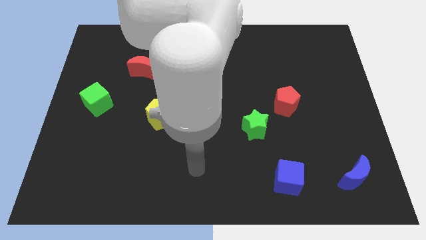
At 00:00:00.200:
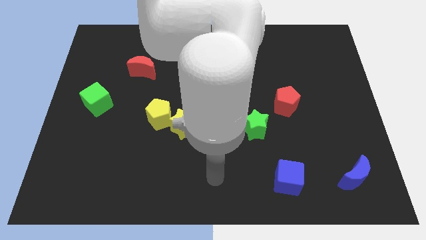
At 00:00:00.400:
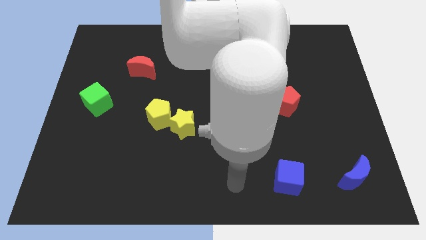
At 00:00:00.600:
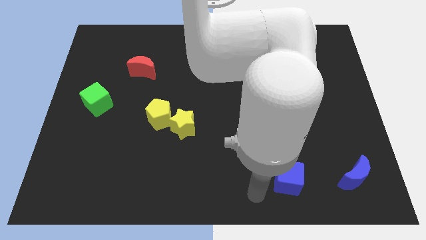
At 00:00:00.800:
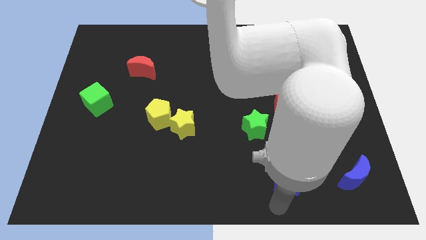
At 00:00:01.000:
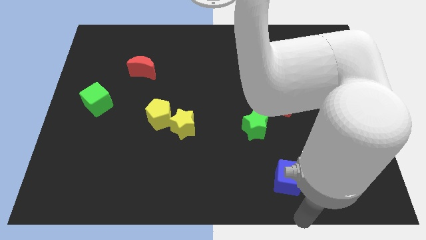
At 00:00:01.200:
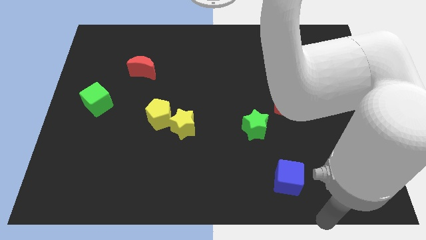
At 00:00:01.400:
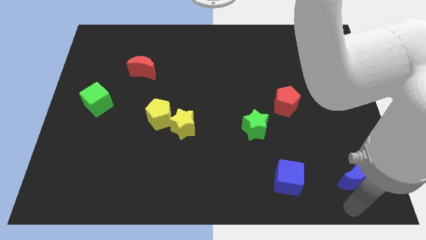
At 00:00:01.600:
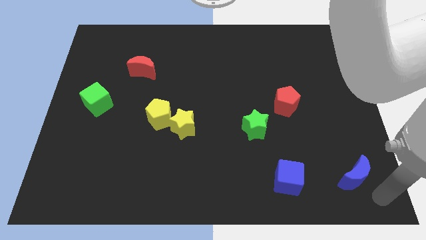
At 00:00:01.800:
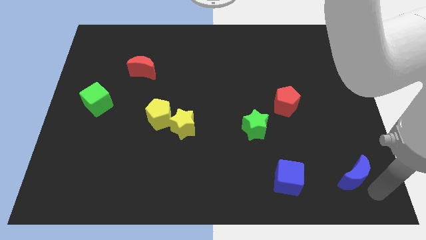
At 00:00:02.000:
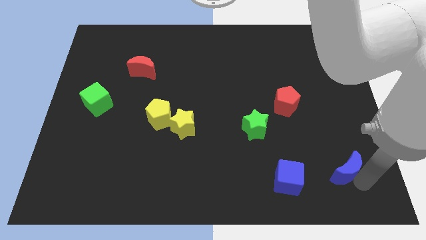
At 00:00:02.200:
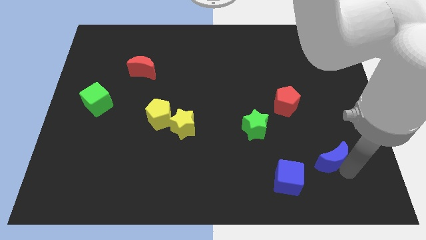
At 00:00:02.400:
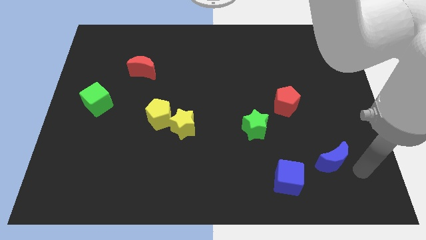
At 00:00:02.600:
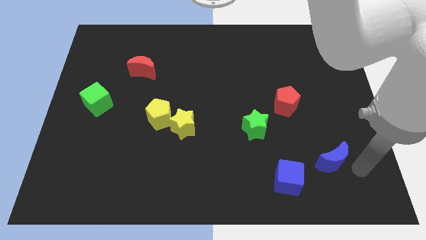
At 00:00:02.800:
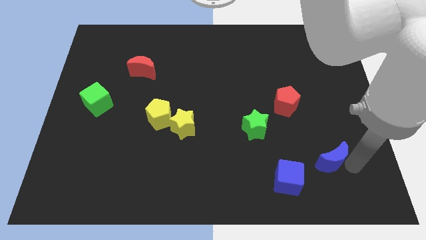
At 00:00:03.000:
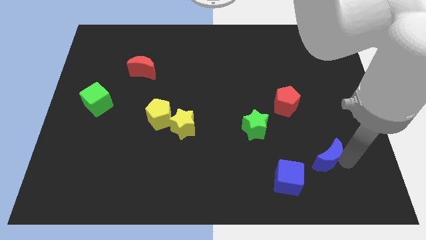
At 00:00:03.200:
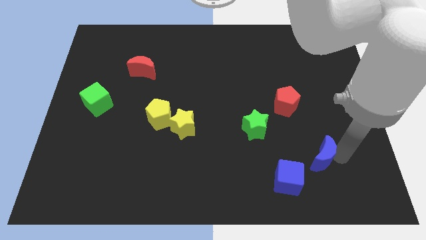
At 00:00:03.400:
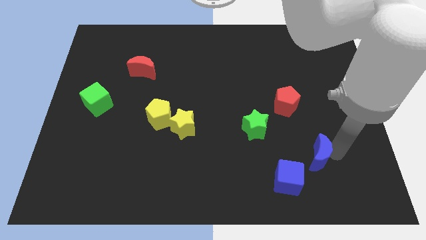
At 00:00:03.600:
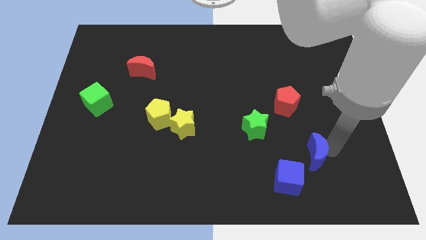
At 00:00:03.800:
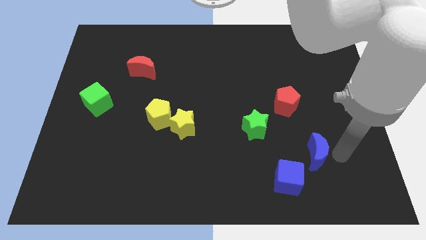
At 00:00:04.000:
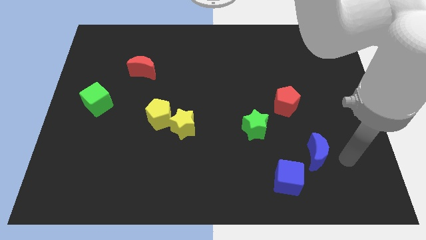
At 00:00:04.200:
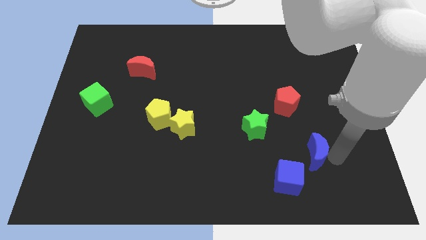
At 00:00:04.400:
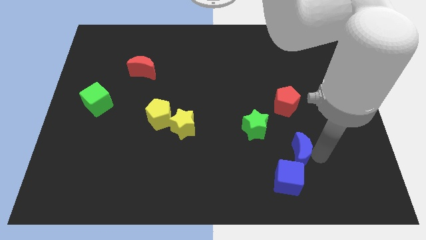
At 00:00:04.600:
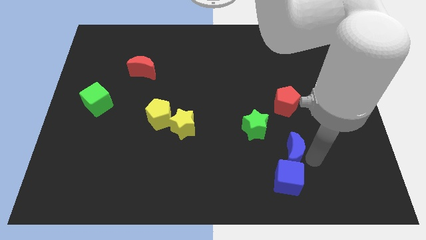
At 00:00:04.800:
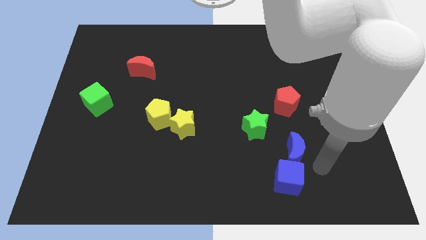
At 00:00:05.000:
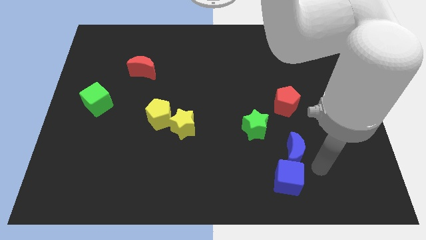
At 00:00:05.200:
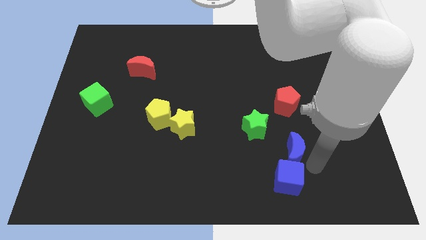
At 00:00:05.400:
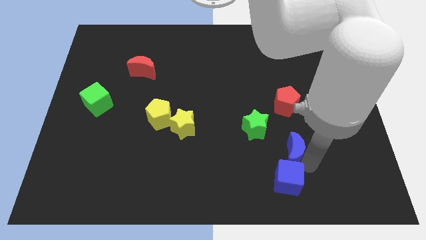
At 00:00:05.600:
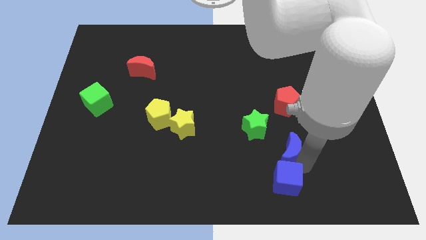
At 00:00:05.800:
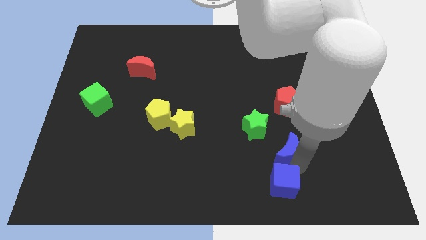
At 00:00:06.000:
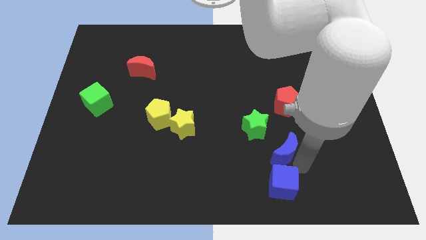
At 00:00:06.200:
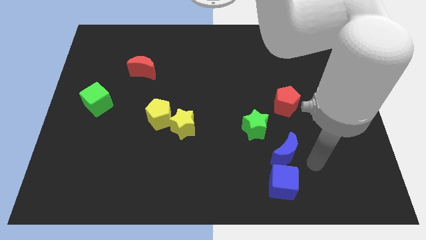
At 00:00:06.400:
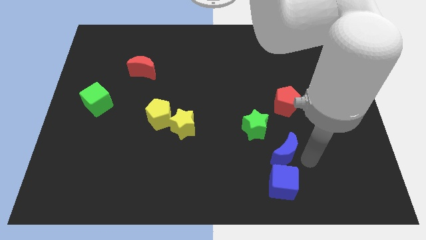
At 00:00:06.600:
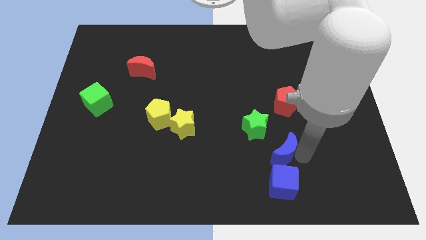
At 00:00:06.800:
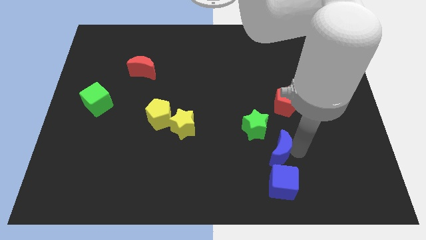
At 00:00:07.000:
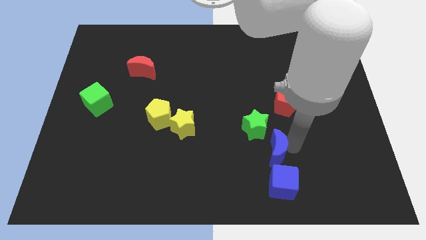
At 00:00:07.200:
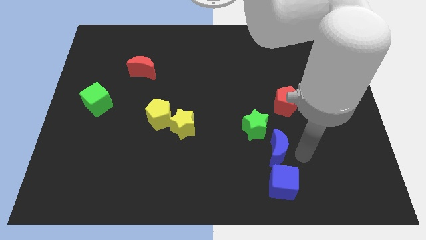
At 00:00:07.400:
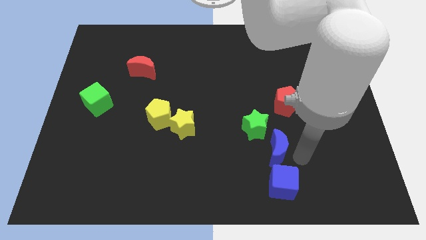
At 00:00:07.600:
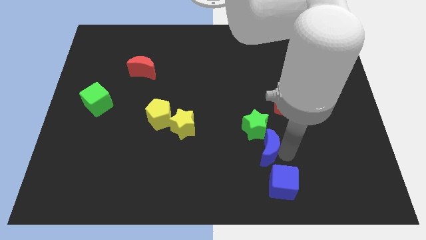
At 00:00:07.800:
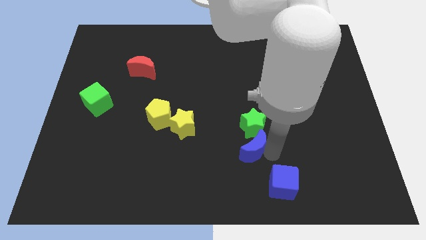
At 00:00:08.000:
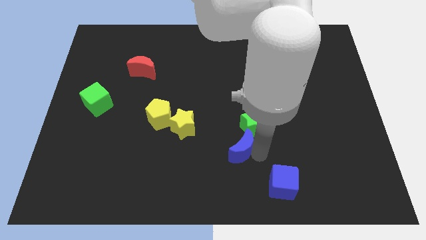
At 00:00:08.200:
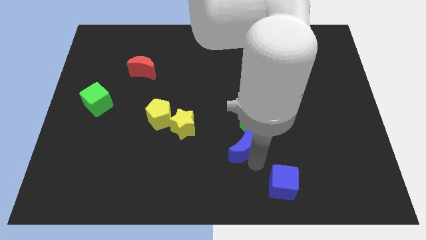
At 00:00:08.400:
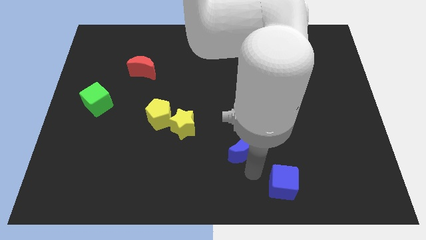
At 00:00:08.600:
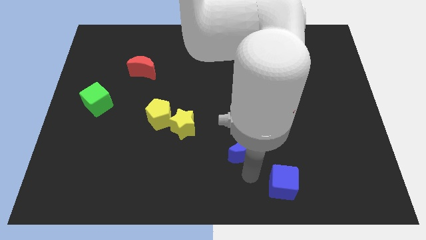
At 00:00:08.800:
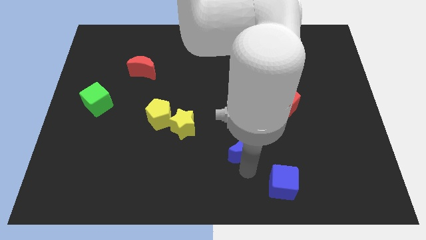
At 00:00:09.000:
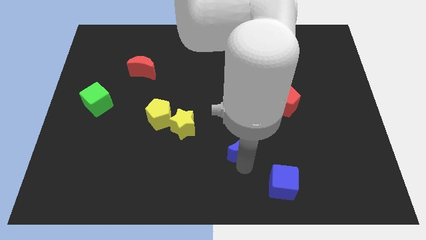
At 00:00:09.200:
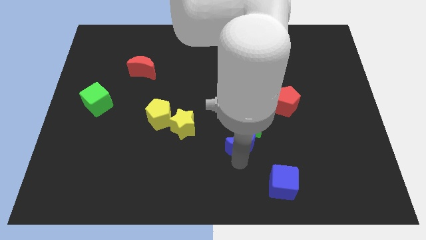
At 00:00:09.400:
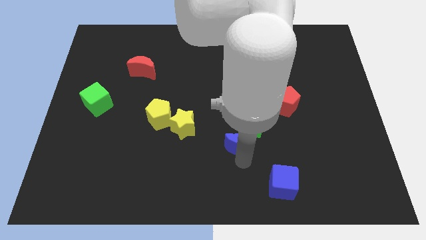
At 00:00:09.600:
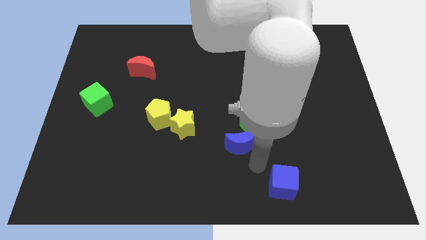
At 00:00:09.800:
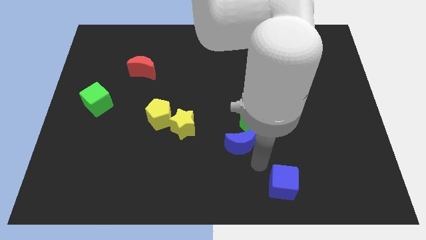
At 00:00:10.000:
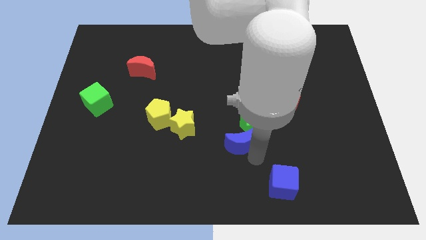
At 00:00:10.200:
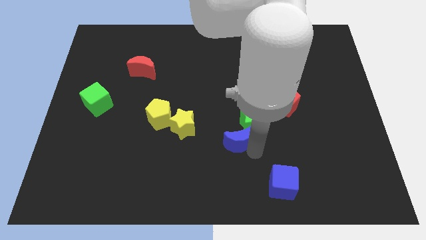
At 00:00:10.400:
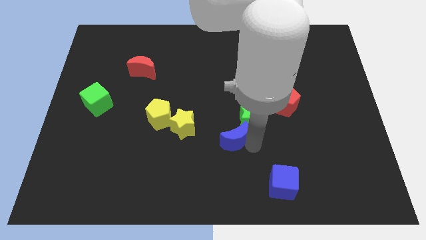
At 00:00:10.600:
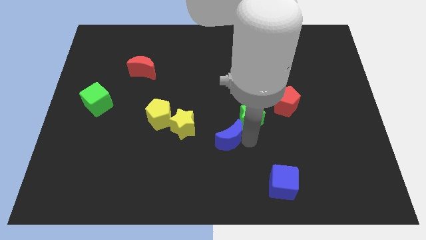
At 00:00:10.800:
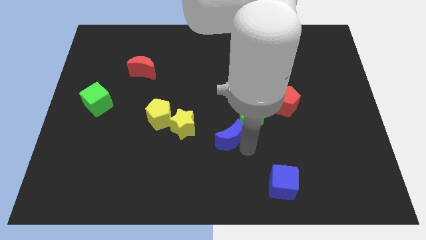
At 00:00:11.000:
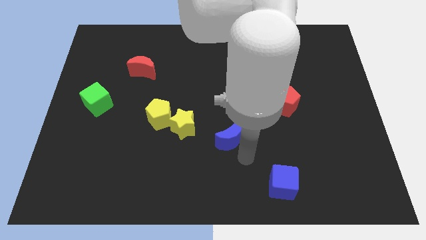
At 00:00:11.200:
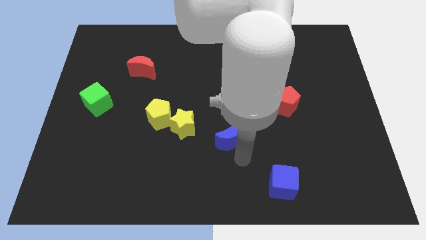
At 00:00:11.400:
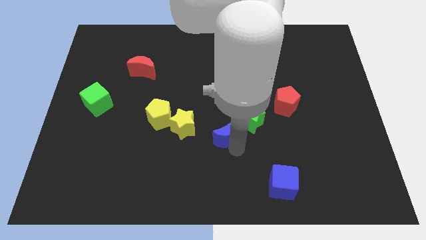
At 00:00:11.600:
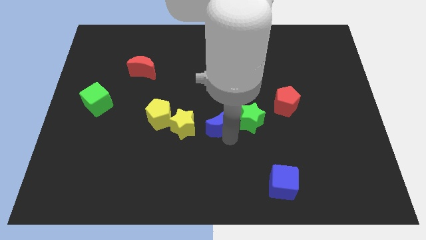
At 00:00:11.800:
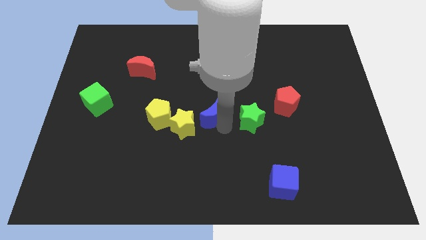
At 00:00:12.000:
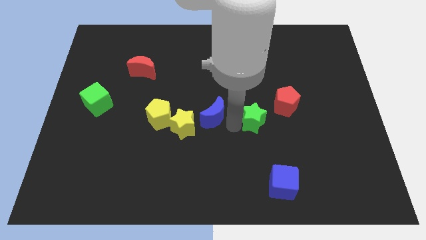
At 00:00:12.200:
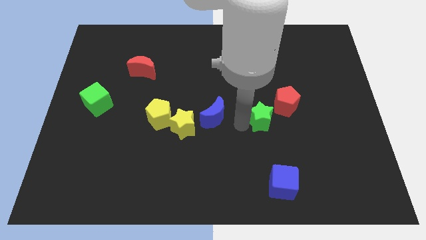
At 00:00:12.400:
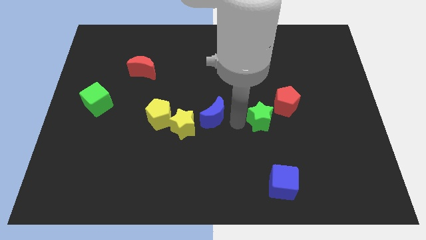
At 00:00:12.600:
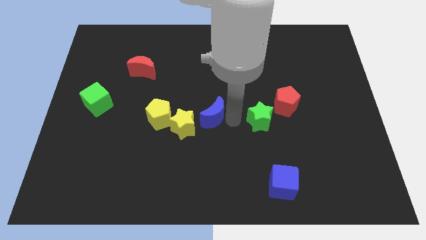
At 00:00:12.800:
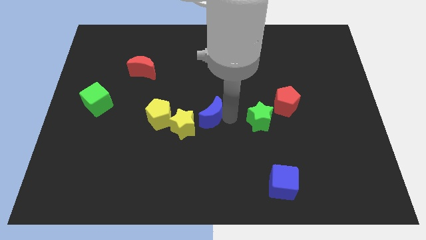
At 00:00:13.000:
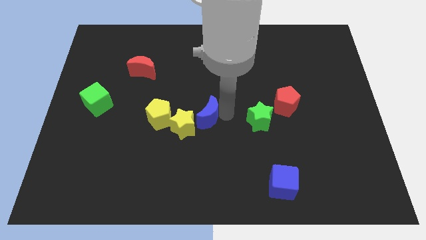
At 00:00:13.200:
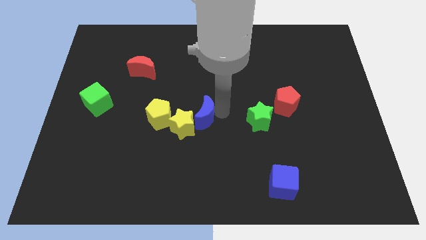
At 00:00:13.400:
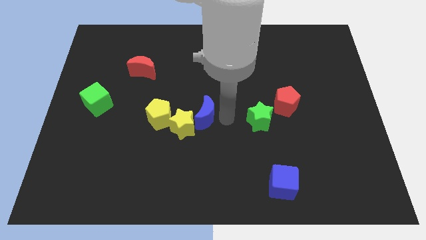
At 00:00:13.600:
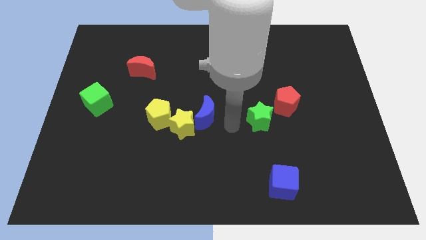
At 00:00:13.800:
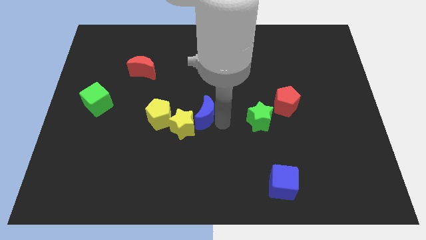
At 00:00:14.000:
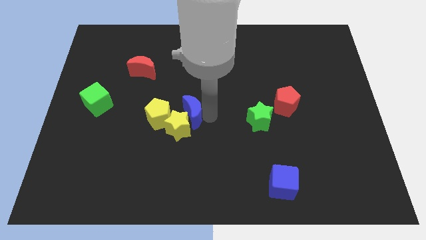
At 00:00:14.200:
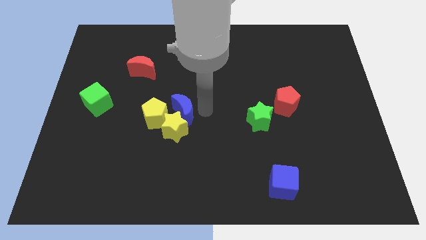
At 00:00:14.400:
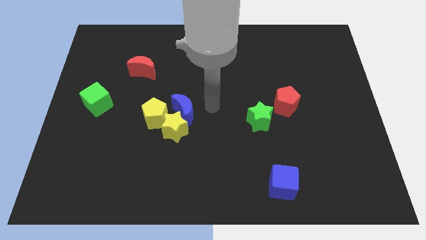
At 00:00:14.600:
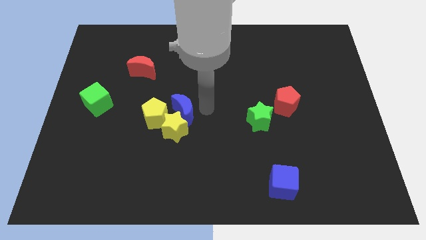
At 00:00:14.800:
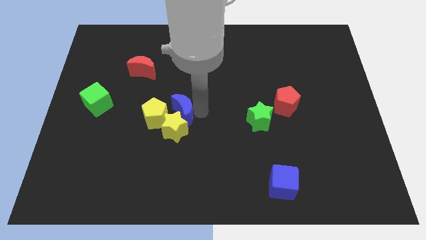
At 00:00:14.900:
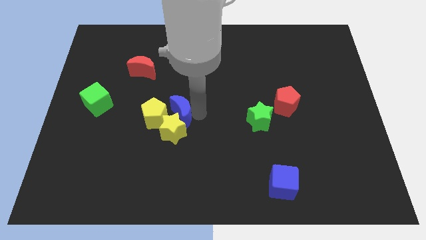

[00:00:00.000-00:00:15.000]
put the blue moon next to the yellow pentagon
